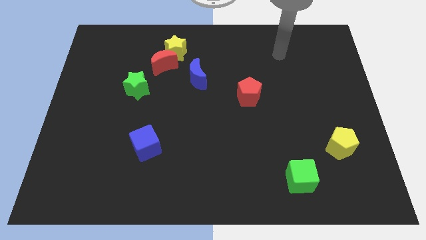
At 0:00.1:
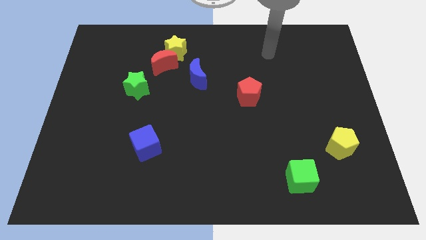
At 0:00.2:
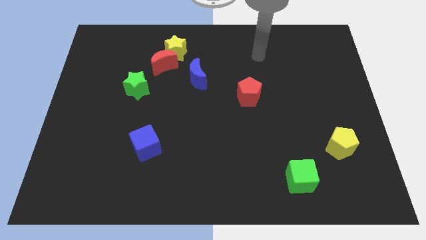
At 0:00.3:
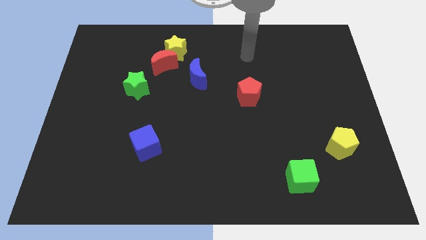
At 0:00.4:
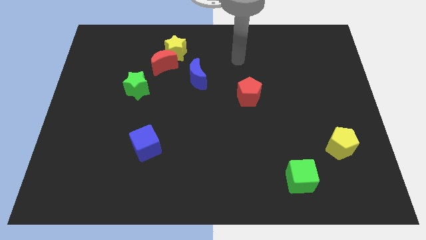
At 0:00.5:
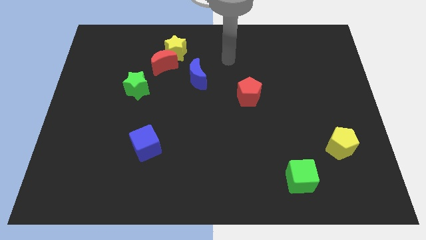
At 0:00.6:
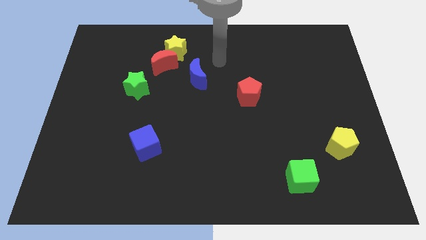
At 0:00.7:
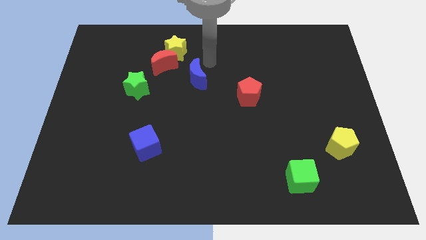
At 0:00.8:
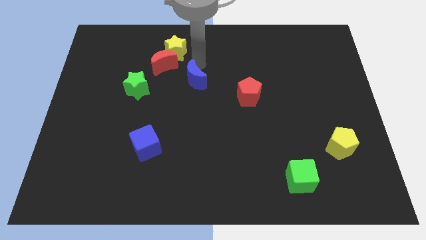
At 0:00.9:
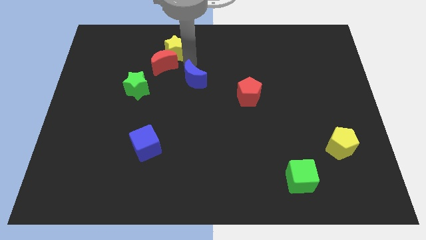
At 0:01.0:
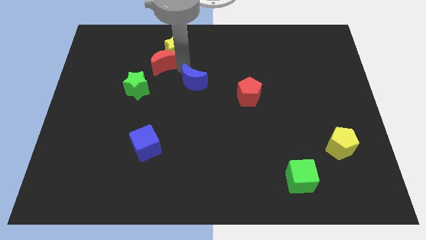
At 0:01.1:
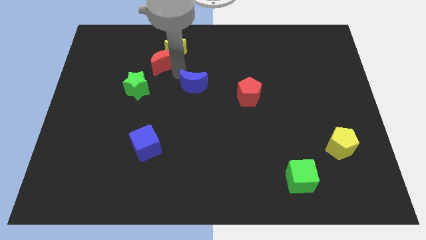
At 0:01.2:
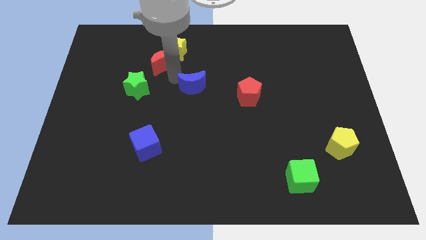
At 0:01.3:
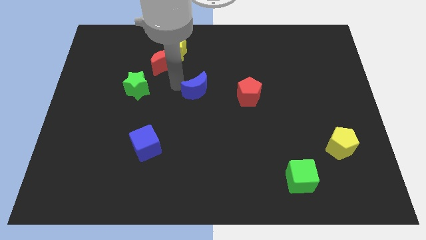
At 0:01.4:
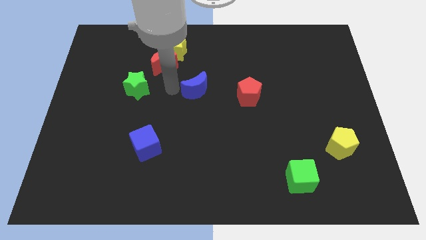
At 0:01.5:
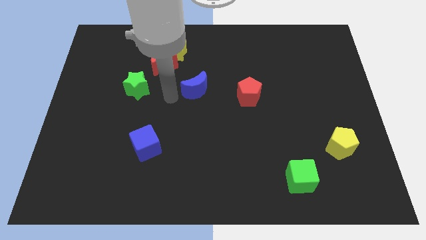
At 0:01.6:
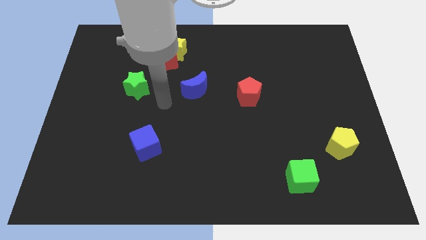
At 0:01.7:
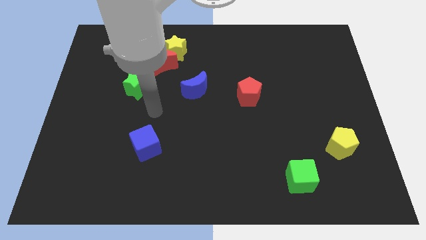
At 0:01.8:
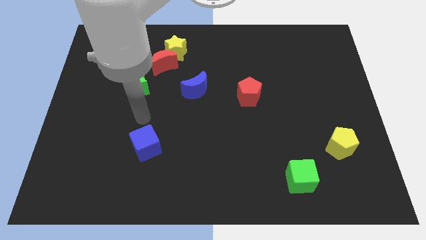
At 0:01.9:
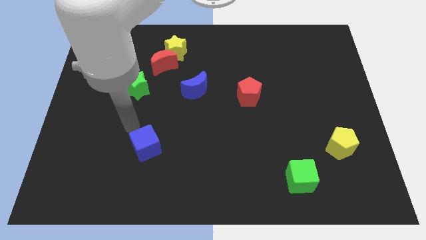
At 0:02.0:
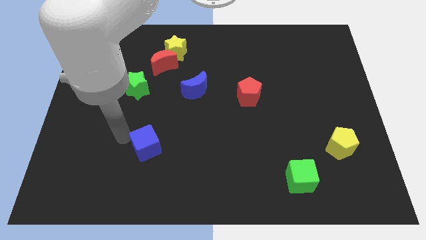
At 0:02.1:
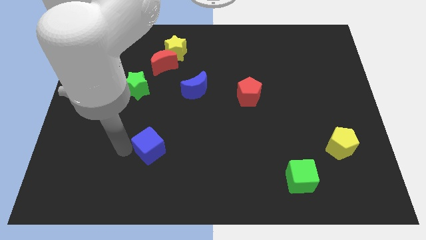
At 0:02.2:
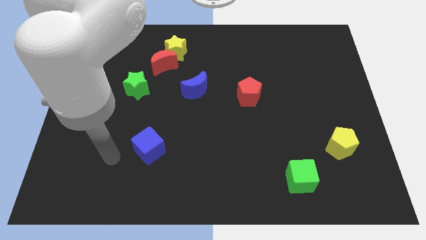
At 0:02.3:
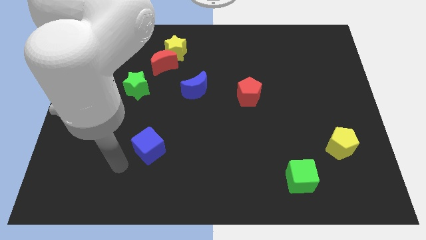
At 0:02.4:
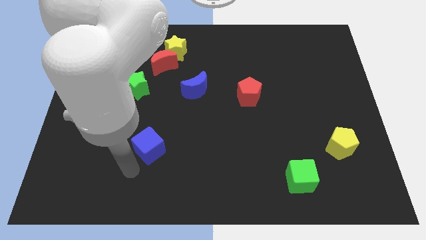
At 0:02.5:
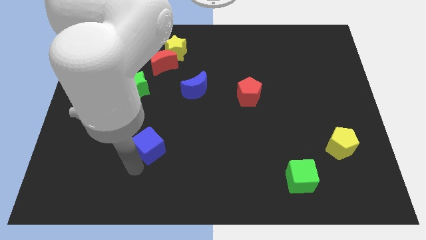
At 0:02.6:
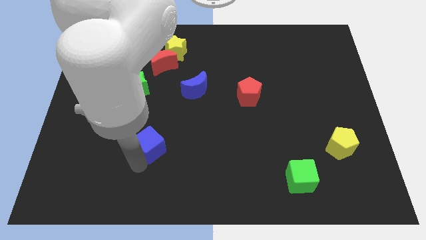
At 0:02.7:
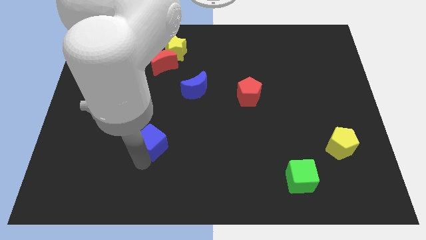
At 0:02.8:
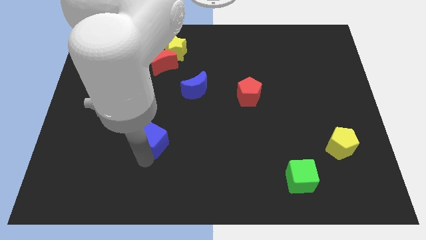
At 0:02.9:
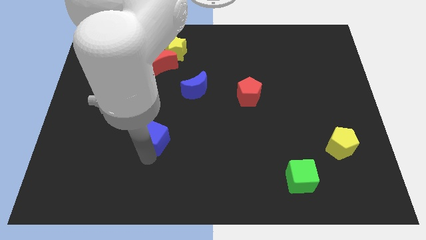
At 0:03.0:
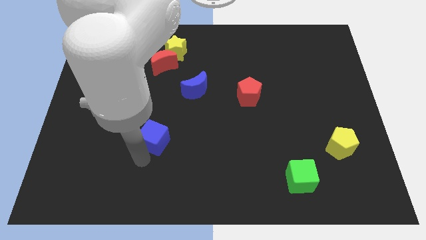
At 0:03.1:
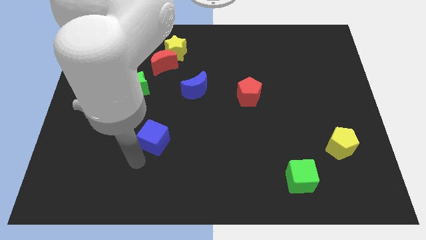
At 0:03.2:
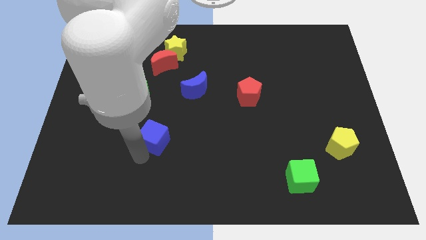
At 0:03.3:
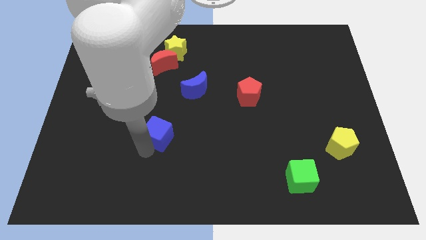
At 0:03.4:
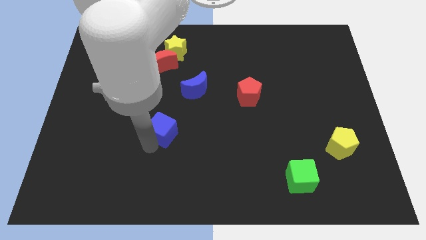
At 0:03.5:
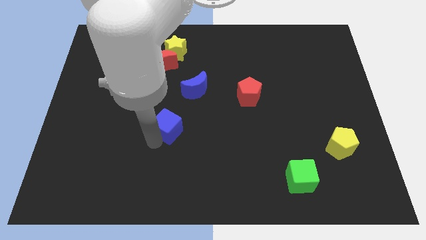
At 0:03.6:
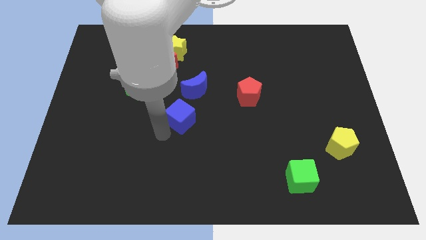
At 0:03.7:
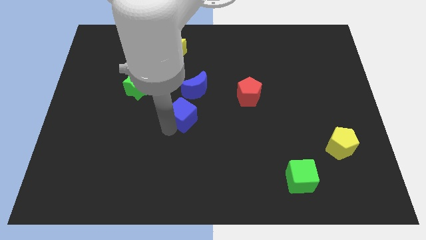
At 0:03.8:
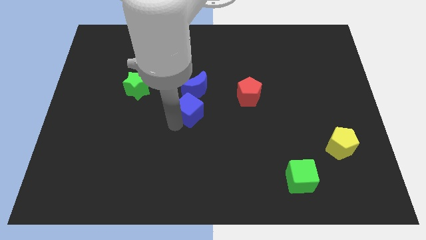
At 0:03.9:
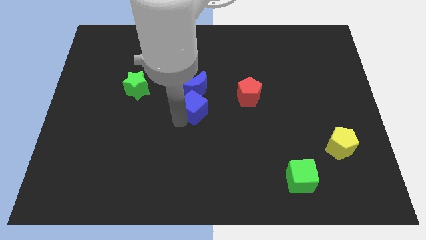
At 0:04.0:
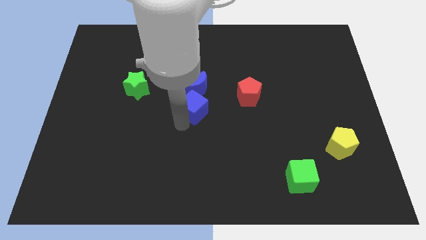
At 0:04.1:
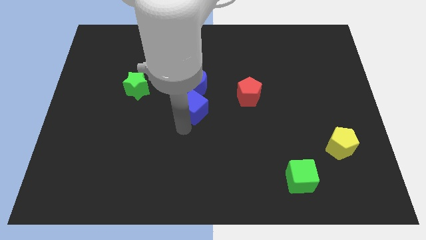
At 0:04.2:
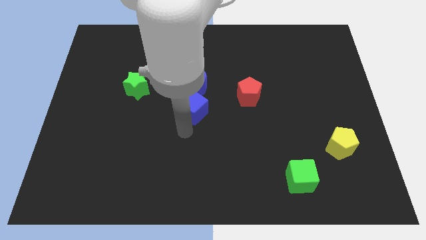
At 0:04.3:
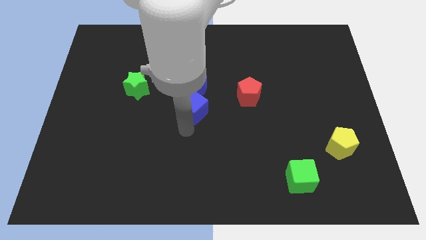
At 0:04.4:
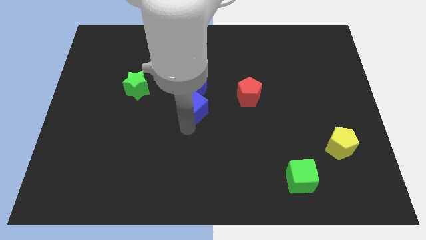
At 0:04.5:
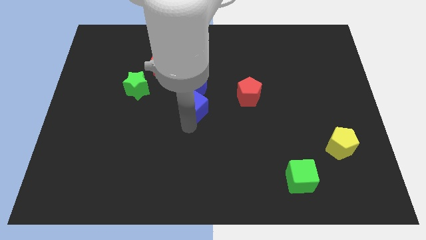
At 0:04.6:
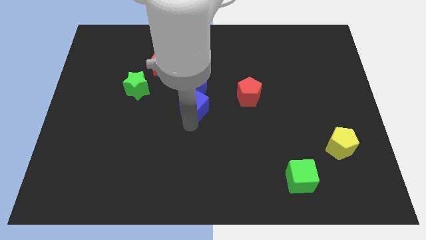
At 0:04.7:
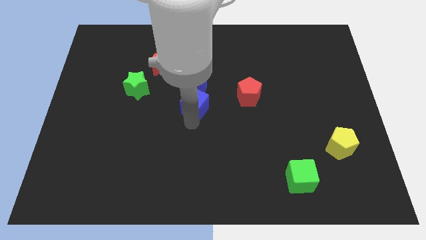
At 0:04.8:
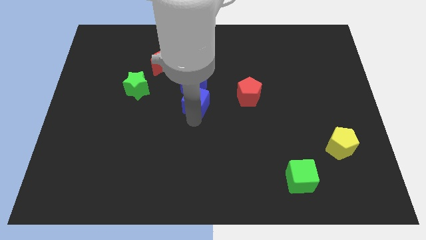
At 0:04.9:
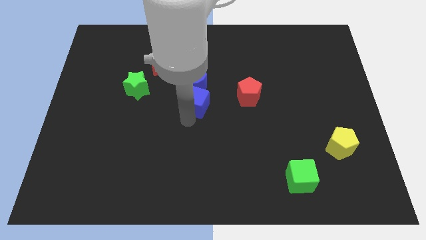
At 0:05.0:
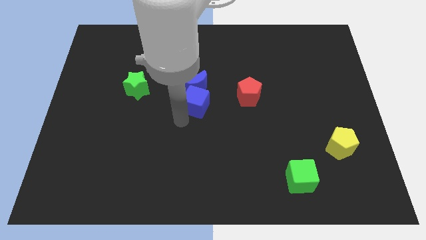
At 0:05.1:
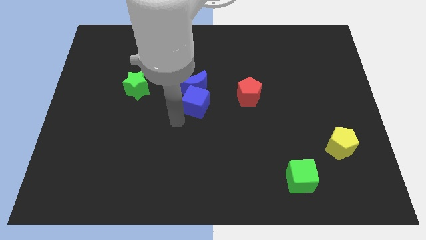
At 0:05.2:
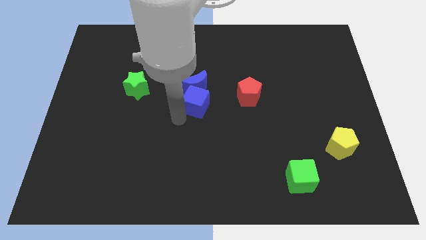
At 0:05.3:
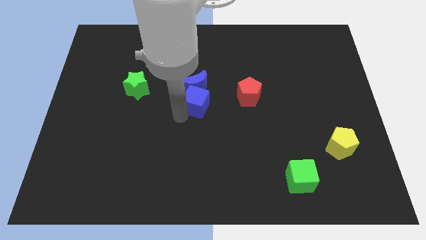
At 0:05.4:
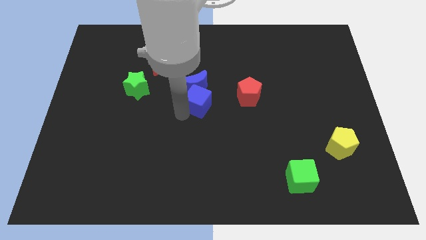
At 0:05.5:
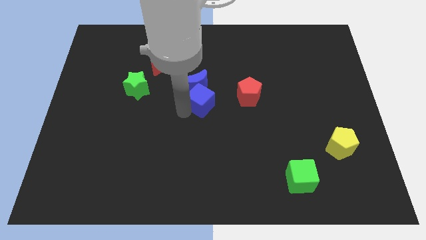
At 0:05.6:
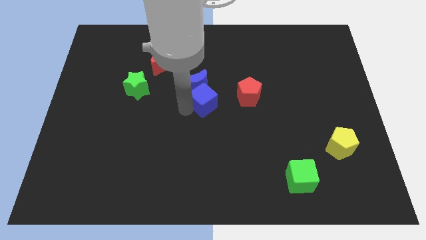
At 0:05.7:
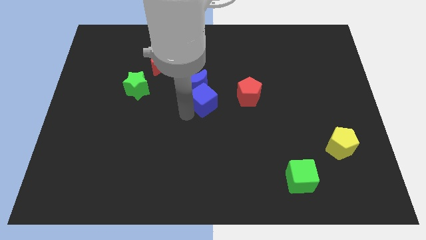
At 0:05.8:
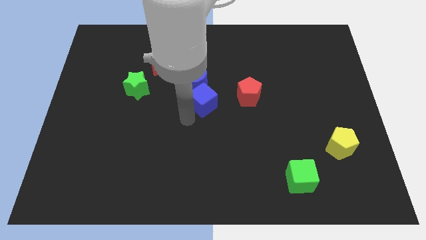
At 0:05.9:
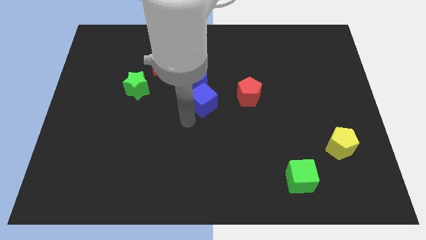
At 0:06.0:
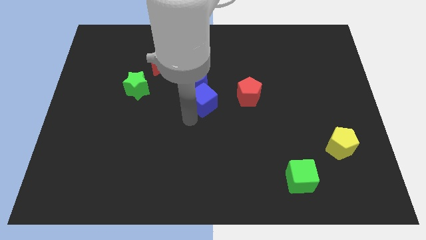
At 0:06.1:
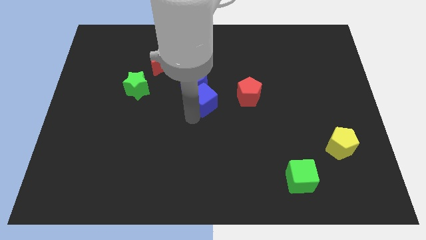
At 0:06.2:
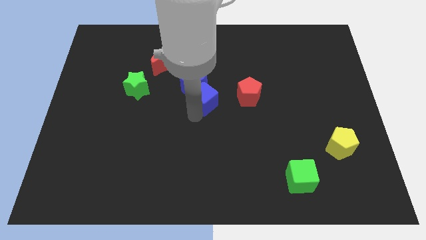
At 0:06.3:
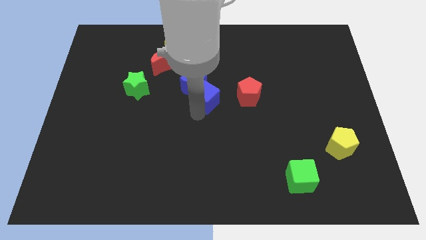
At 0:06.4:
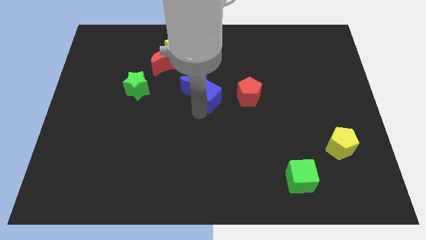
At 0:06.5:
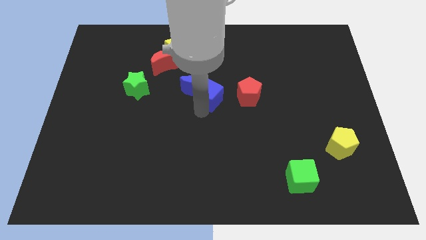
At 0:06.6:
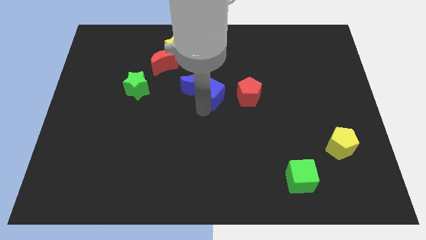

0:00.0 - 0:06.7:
push the blue cube diagonally upwards and right

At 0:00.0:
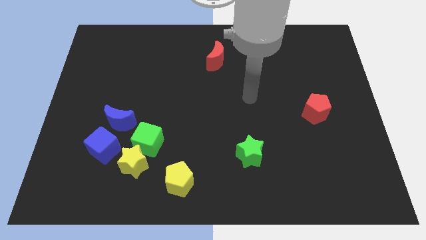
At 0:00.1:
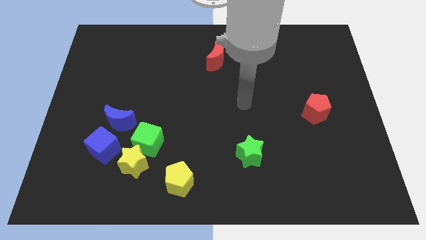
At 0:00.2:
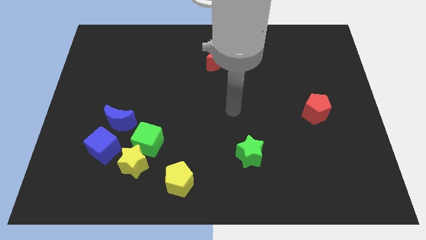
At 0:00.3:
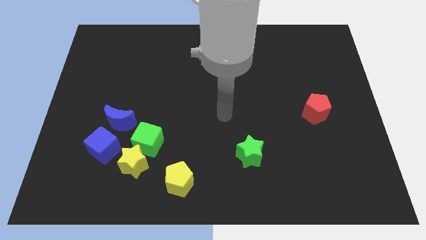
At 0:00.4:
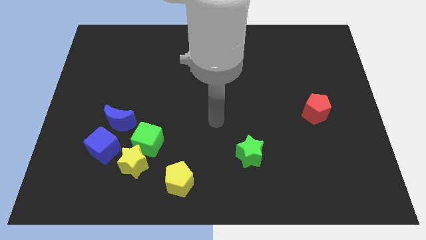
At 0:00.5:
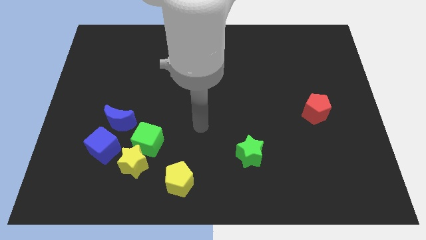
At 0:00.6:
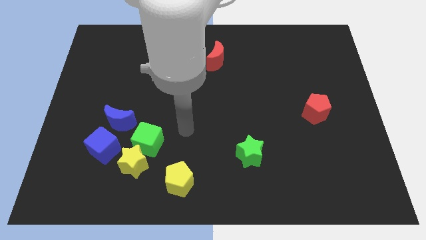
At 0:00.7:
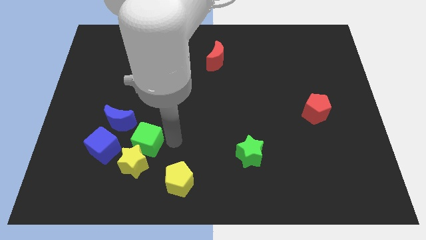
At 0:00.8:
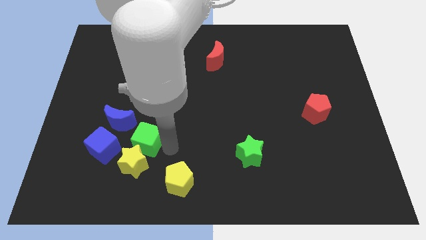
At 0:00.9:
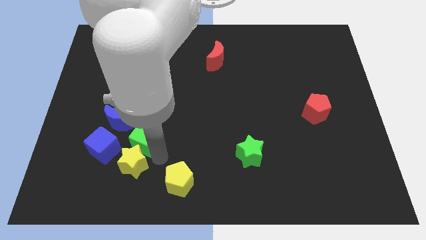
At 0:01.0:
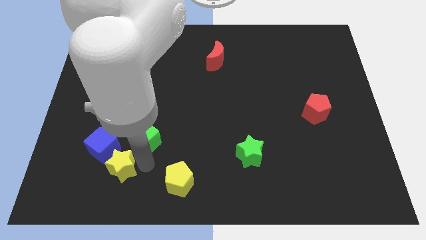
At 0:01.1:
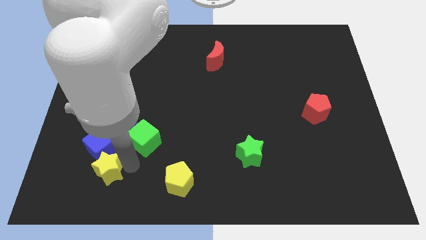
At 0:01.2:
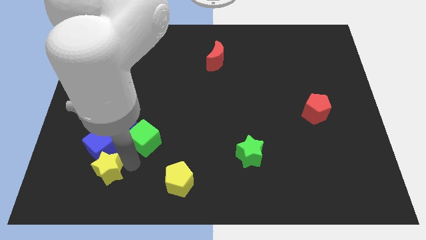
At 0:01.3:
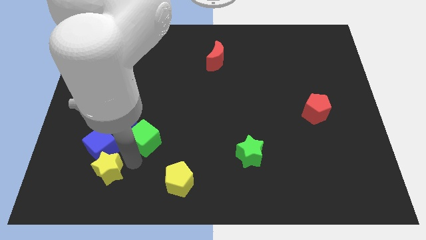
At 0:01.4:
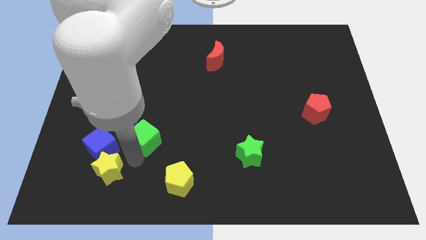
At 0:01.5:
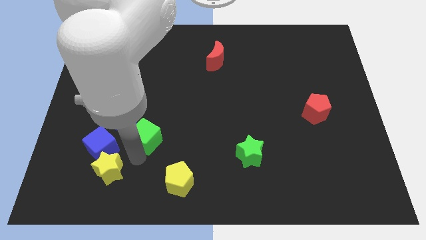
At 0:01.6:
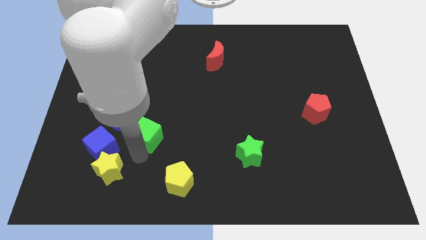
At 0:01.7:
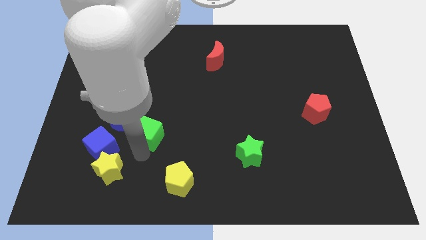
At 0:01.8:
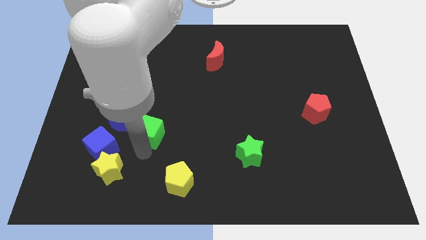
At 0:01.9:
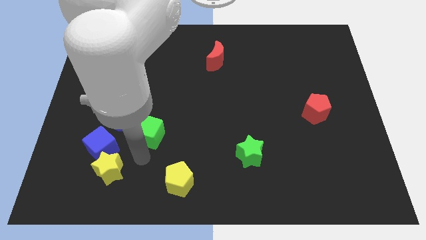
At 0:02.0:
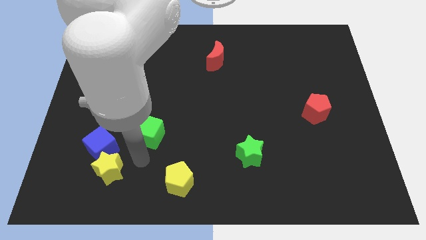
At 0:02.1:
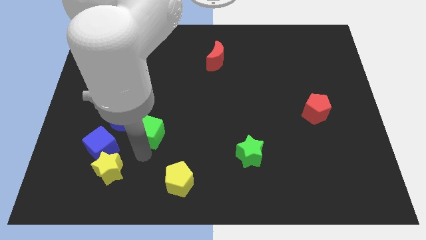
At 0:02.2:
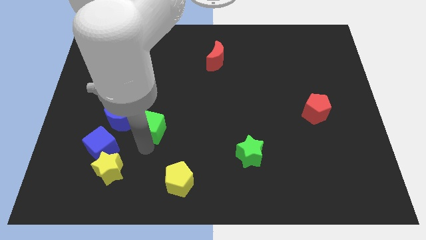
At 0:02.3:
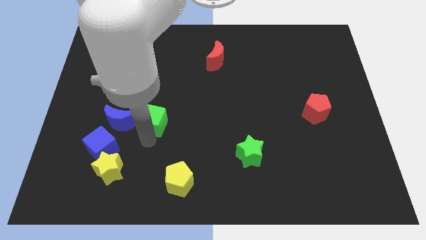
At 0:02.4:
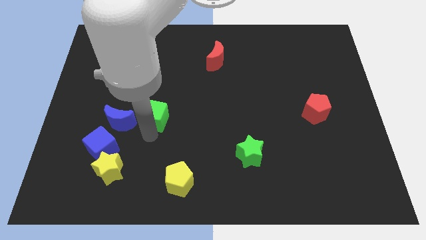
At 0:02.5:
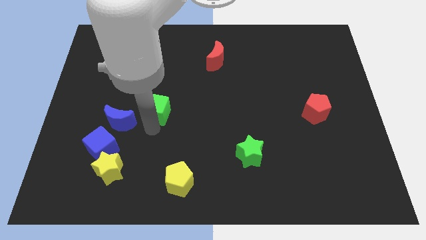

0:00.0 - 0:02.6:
slightly push the green cube up
